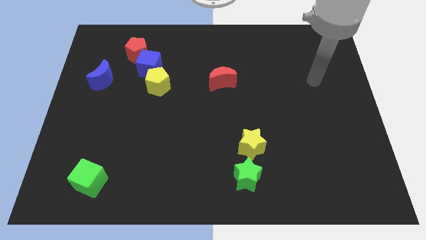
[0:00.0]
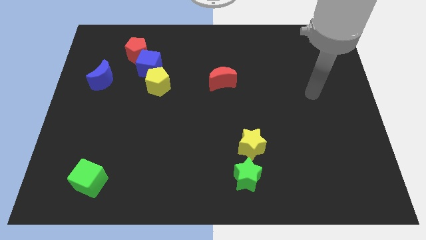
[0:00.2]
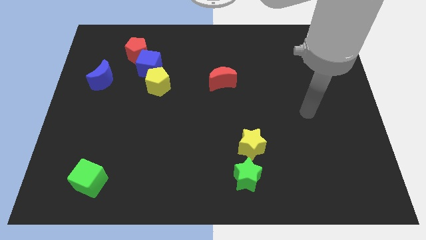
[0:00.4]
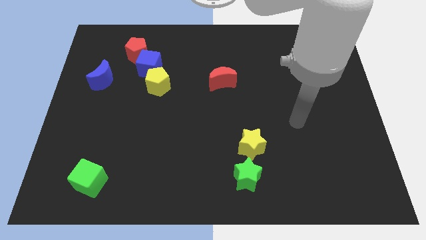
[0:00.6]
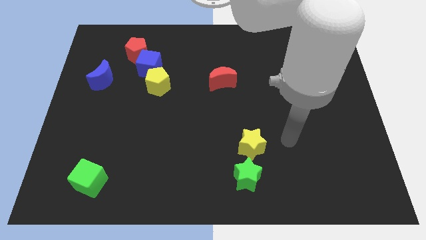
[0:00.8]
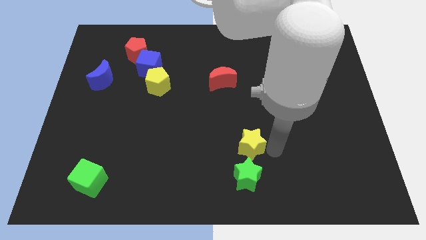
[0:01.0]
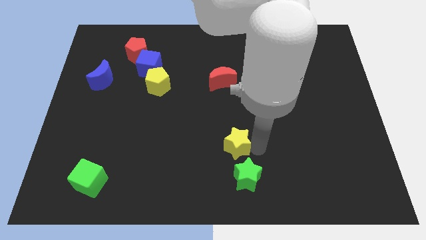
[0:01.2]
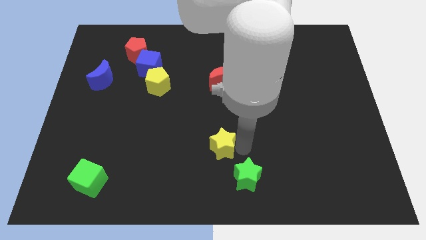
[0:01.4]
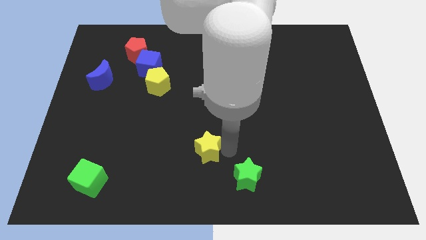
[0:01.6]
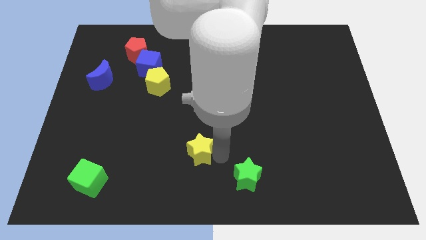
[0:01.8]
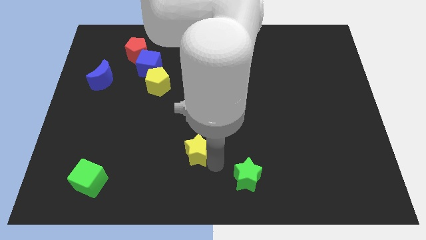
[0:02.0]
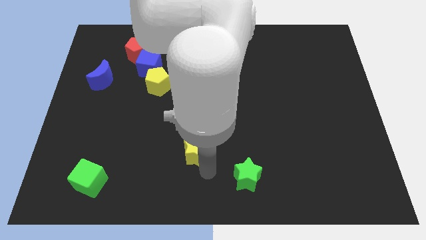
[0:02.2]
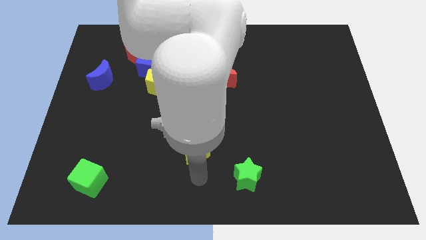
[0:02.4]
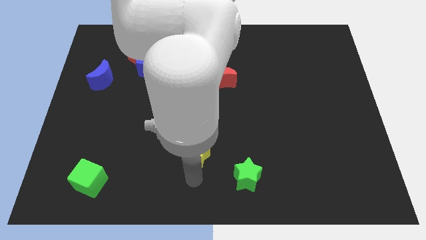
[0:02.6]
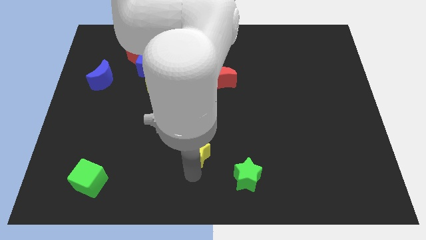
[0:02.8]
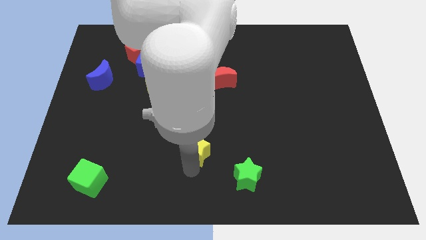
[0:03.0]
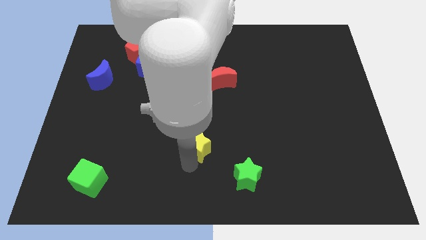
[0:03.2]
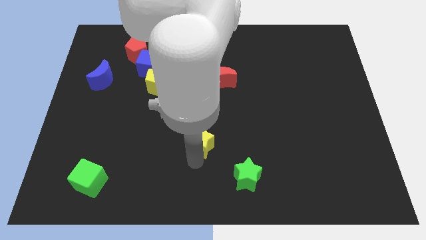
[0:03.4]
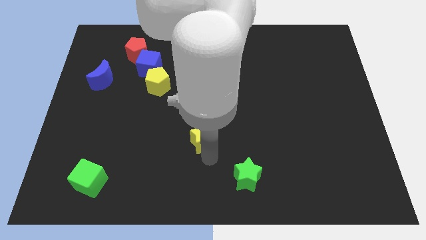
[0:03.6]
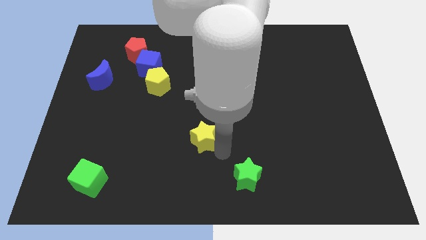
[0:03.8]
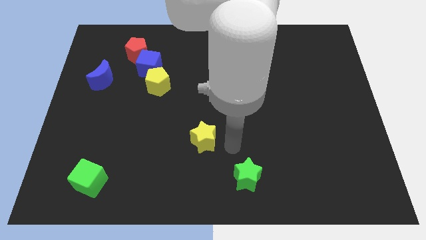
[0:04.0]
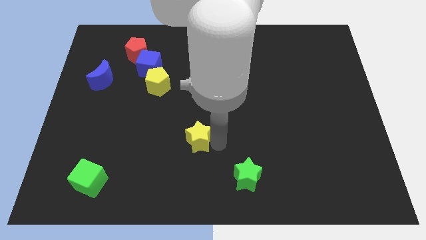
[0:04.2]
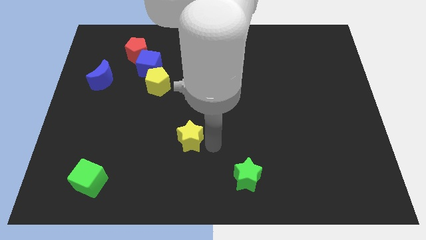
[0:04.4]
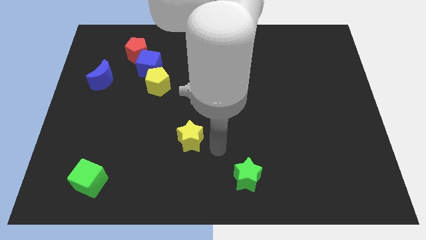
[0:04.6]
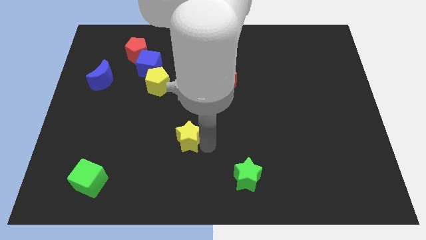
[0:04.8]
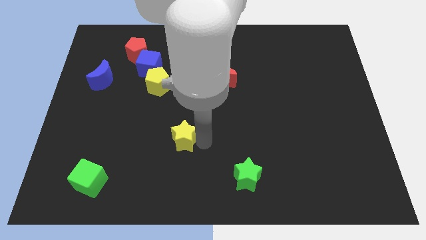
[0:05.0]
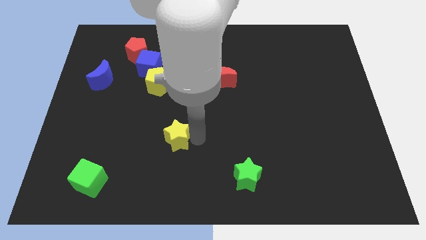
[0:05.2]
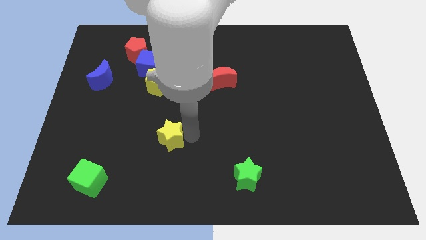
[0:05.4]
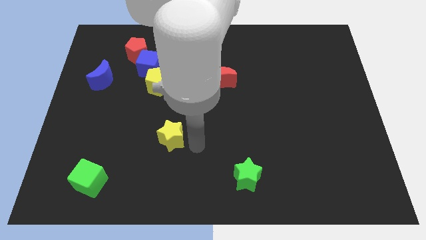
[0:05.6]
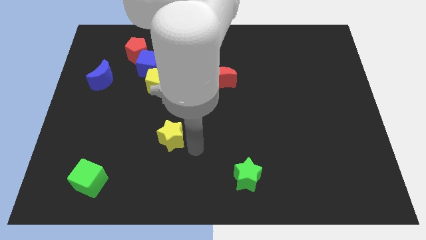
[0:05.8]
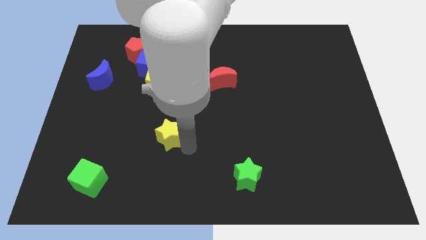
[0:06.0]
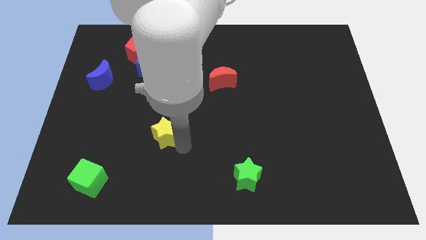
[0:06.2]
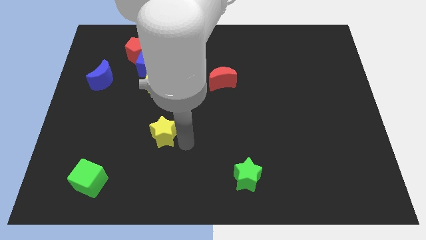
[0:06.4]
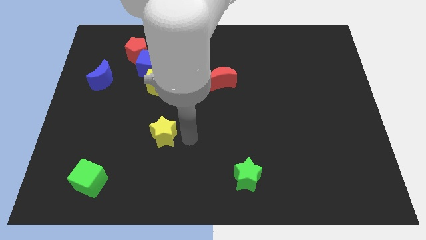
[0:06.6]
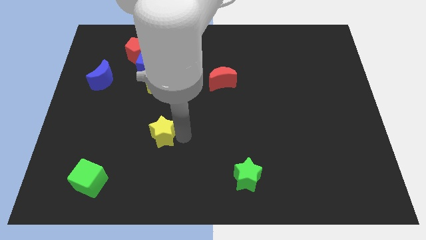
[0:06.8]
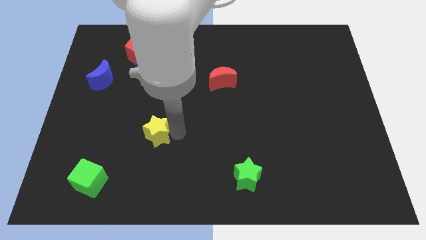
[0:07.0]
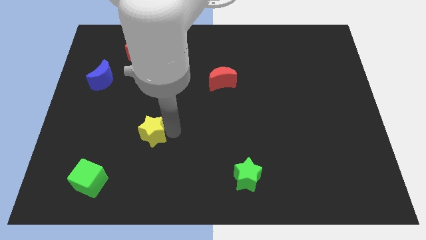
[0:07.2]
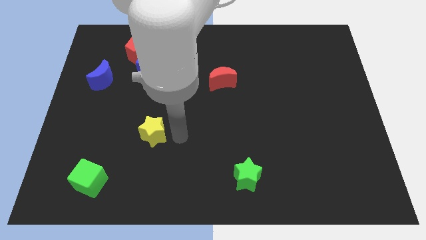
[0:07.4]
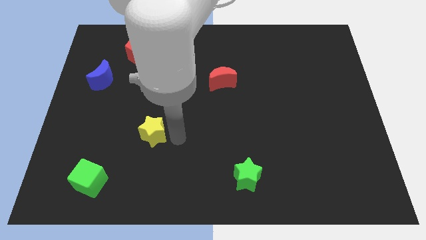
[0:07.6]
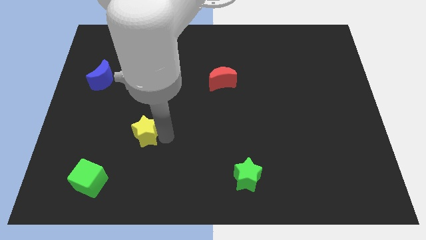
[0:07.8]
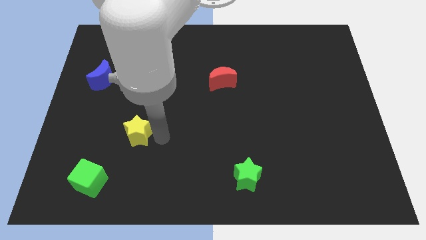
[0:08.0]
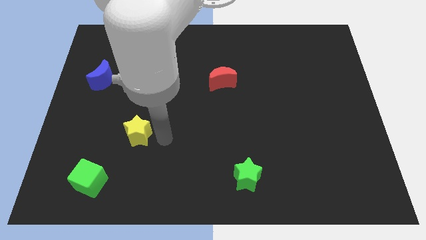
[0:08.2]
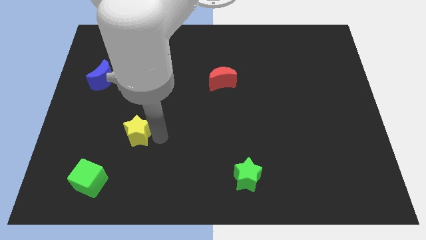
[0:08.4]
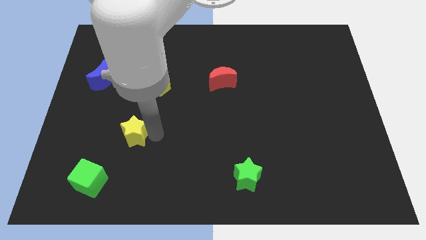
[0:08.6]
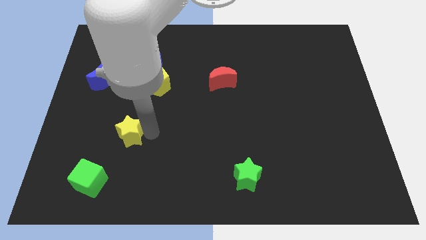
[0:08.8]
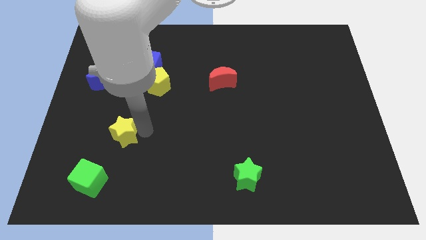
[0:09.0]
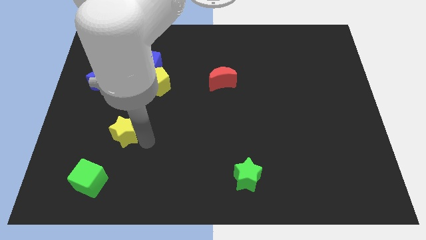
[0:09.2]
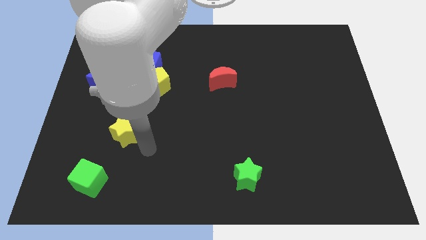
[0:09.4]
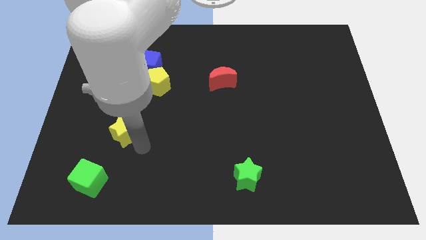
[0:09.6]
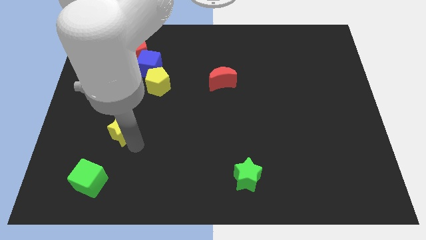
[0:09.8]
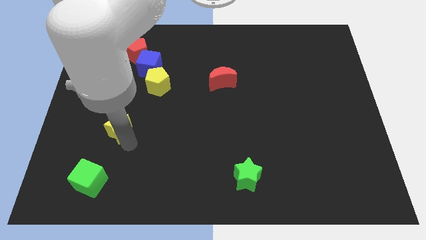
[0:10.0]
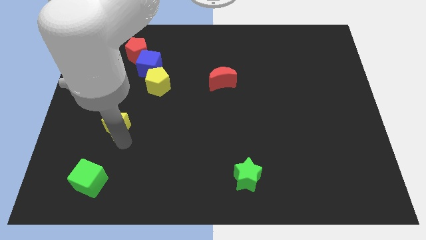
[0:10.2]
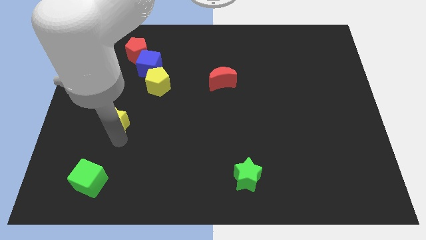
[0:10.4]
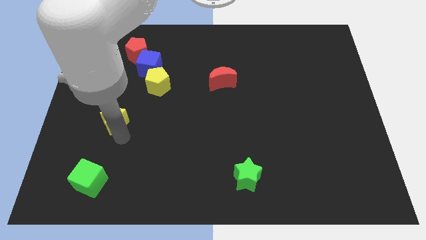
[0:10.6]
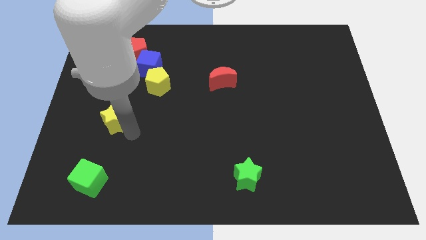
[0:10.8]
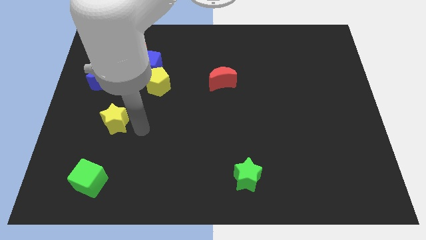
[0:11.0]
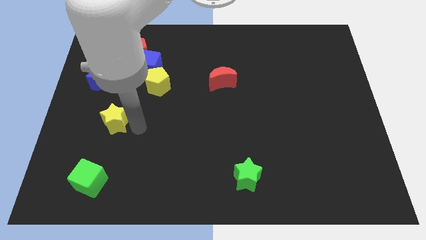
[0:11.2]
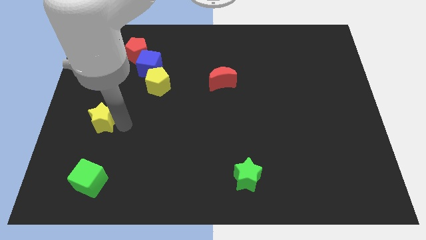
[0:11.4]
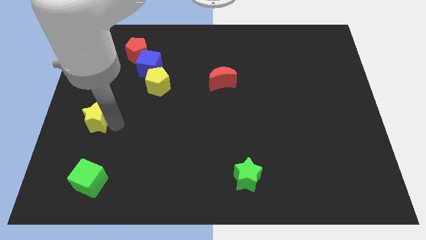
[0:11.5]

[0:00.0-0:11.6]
slide the yellow star to the left side
